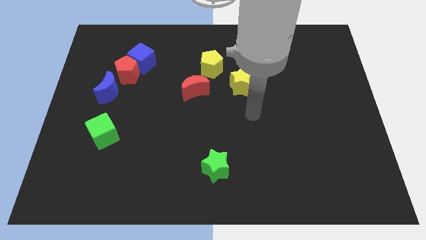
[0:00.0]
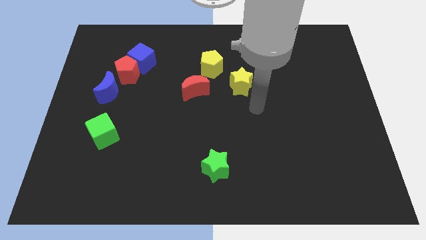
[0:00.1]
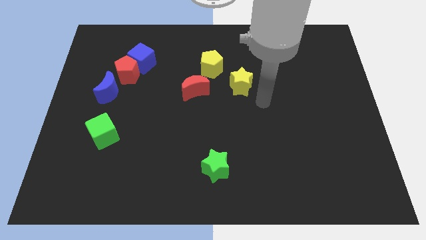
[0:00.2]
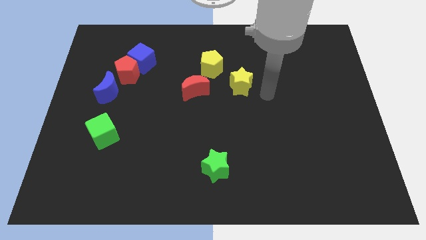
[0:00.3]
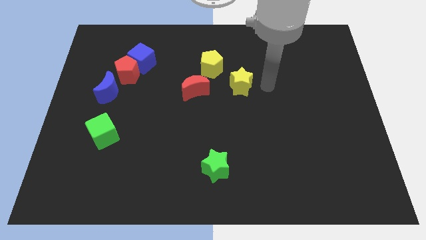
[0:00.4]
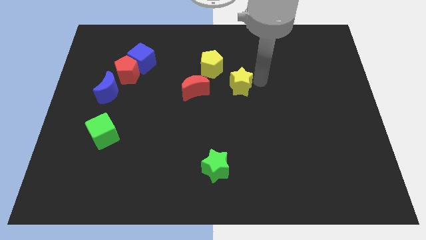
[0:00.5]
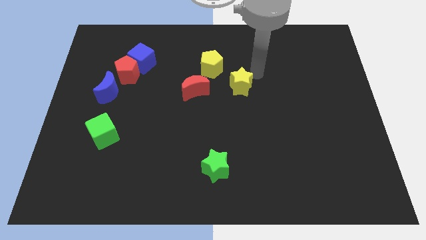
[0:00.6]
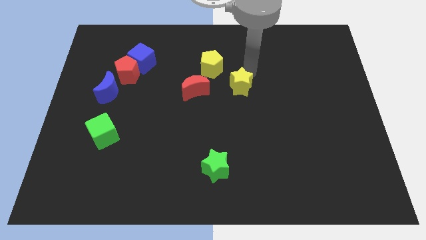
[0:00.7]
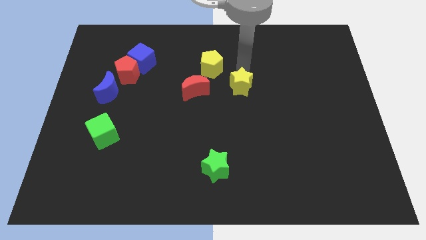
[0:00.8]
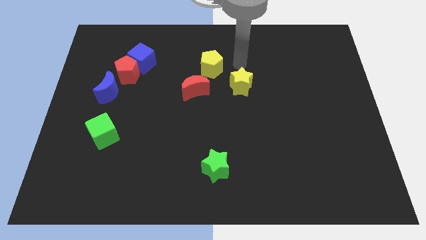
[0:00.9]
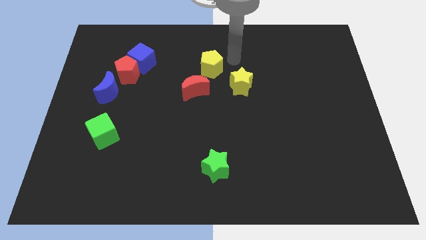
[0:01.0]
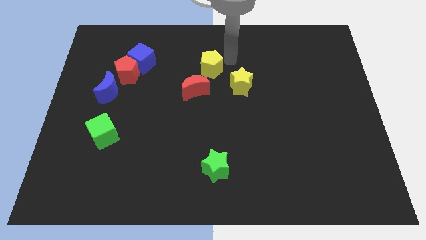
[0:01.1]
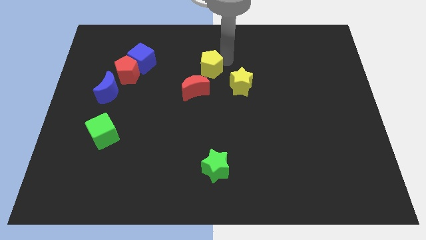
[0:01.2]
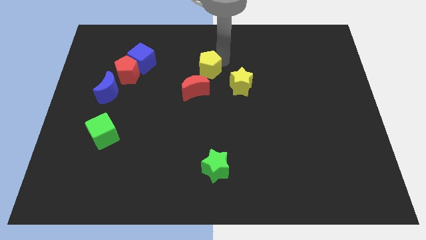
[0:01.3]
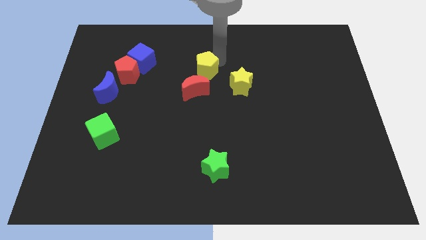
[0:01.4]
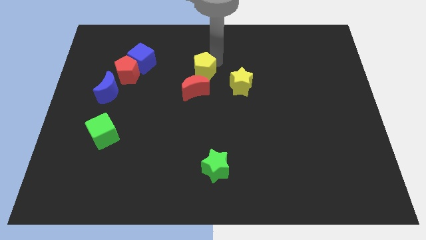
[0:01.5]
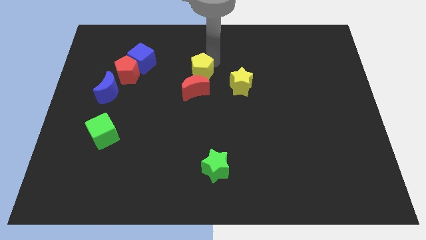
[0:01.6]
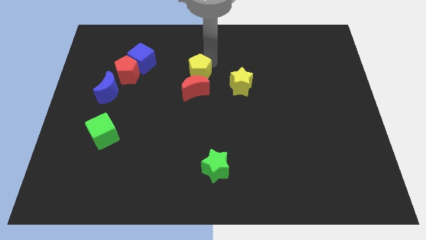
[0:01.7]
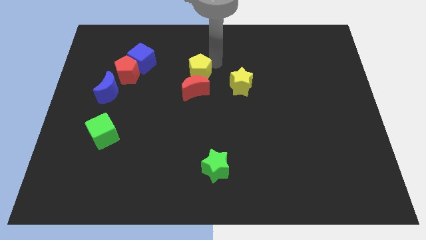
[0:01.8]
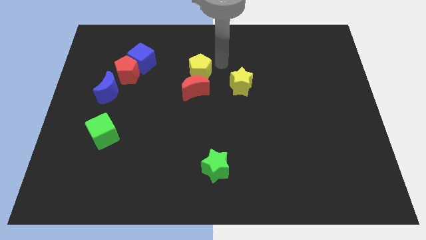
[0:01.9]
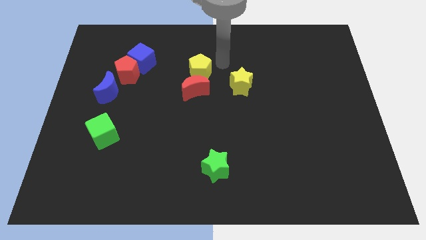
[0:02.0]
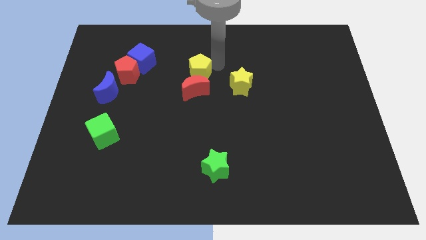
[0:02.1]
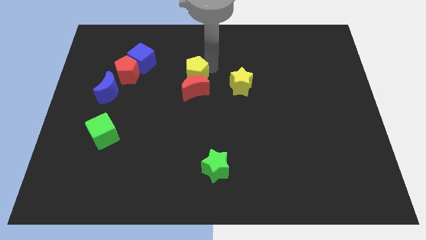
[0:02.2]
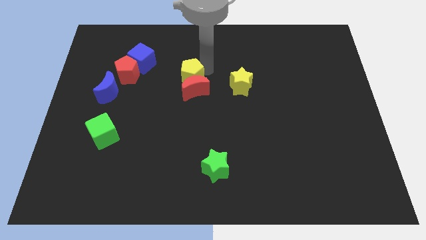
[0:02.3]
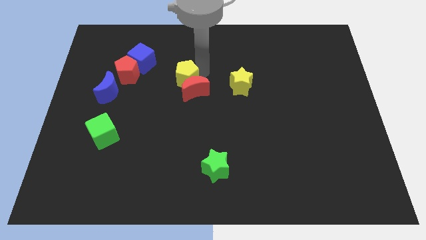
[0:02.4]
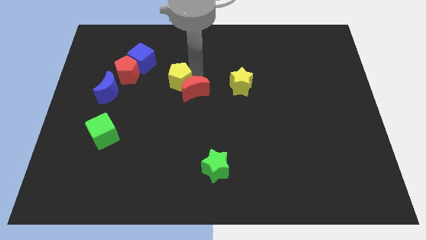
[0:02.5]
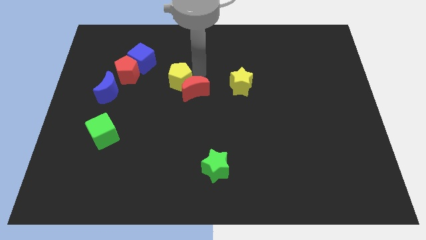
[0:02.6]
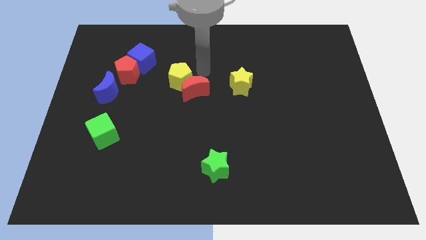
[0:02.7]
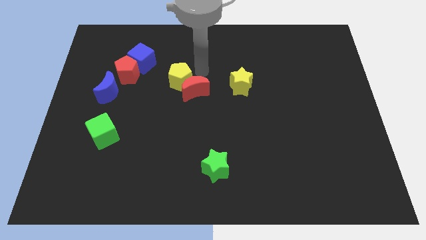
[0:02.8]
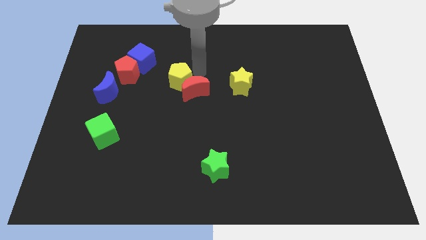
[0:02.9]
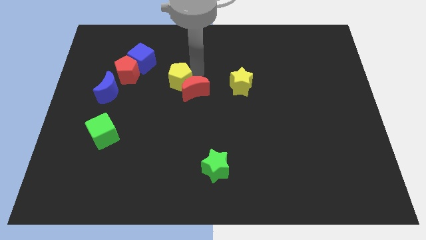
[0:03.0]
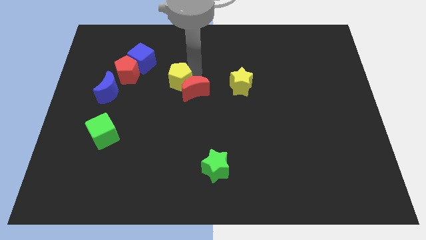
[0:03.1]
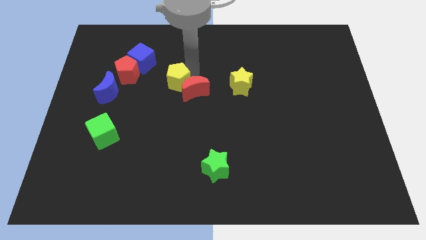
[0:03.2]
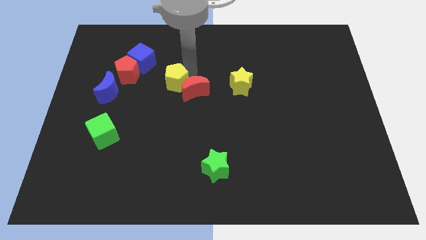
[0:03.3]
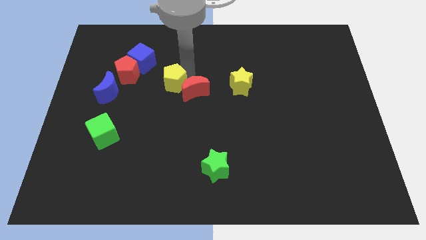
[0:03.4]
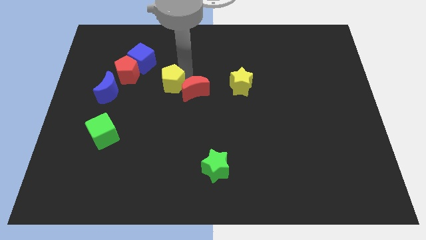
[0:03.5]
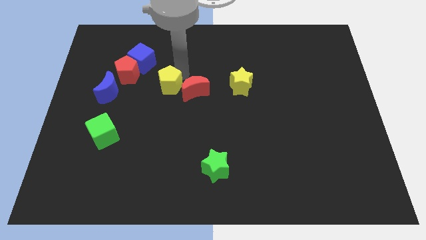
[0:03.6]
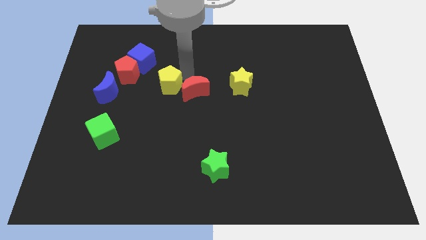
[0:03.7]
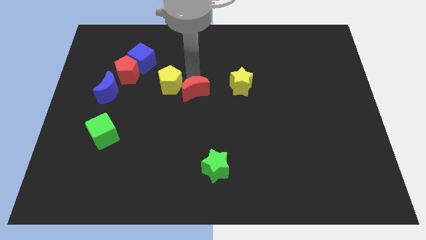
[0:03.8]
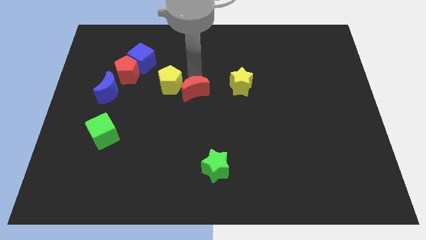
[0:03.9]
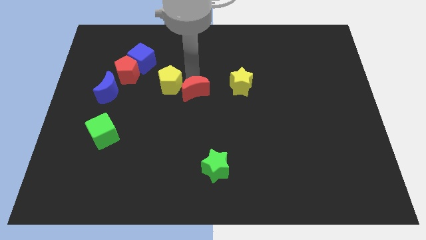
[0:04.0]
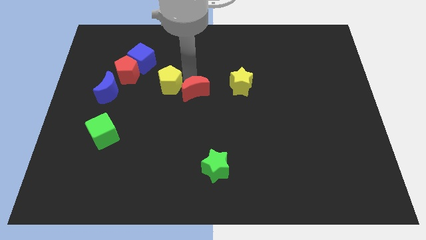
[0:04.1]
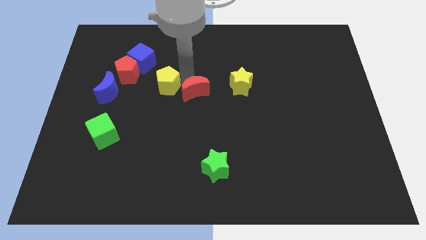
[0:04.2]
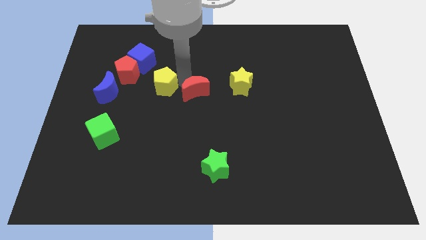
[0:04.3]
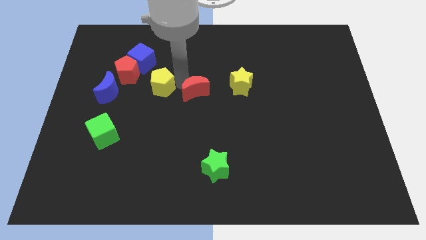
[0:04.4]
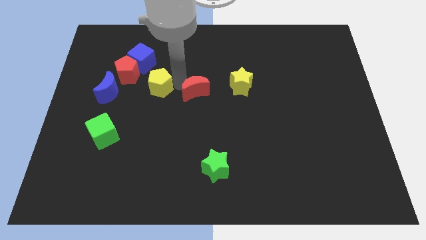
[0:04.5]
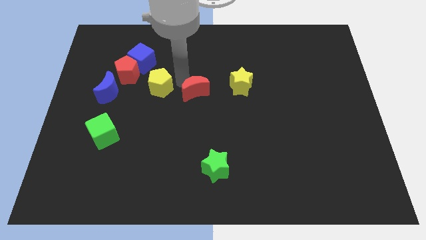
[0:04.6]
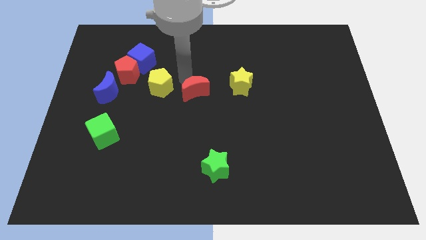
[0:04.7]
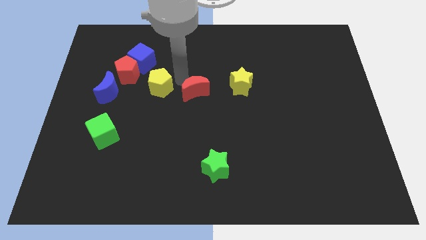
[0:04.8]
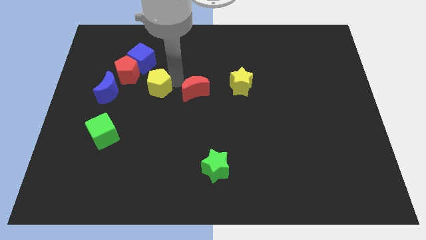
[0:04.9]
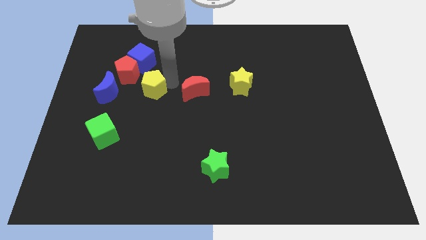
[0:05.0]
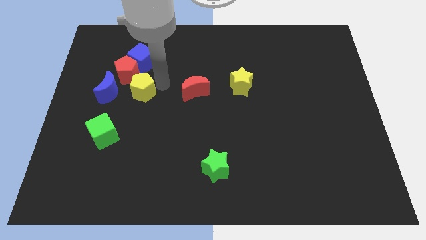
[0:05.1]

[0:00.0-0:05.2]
move the yellow pentagon below the red pentagon

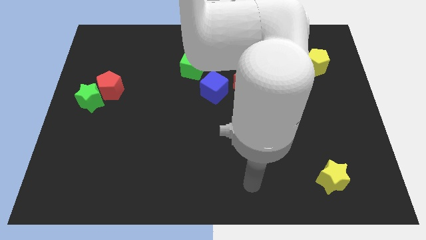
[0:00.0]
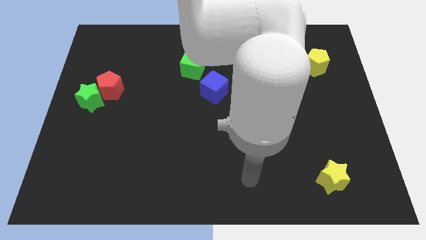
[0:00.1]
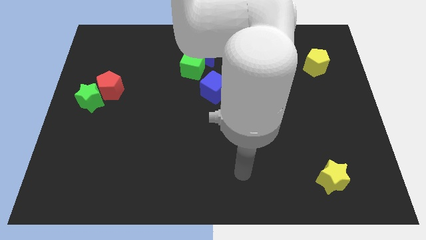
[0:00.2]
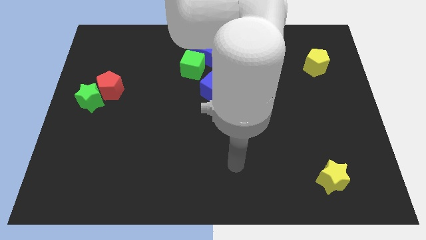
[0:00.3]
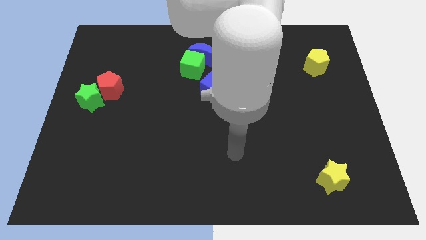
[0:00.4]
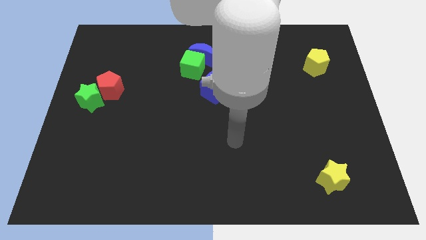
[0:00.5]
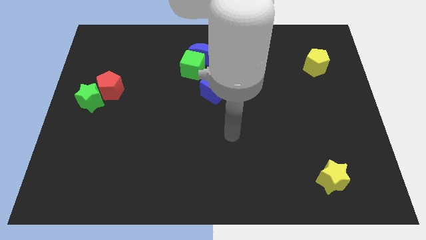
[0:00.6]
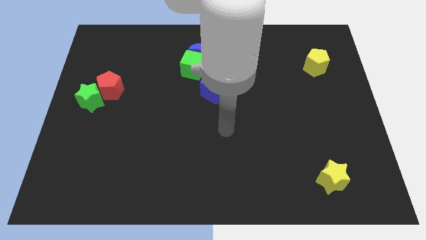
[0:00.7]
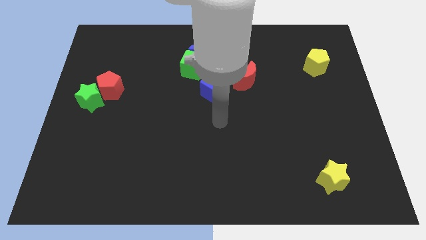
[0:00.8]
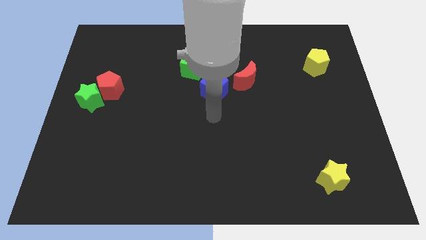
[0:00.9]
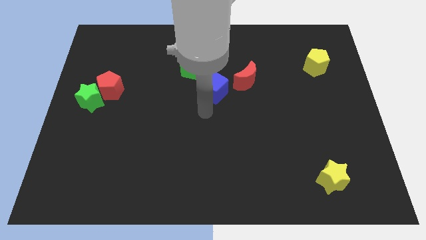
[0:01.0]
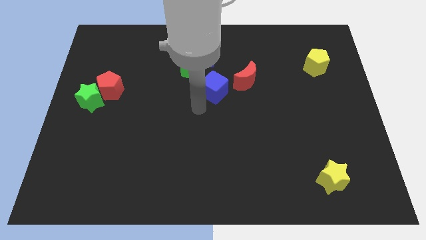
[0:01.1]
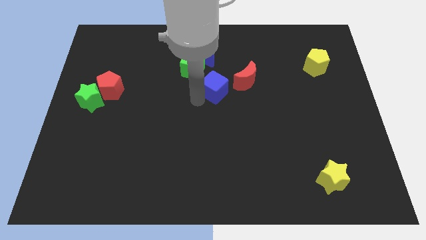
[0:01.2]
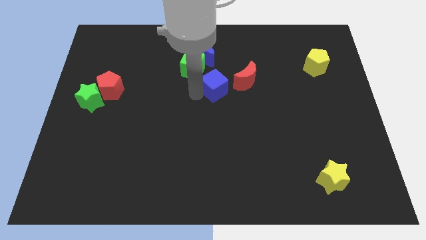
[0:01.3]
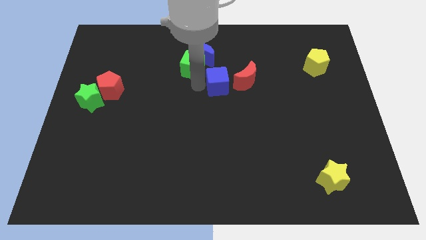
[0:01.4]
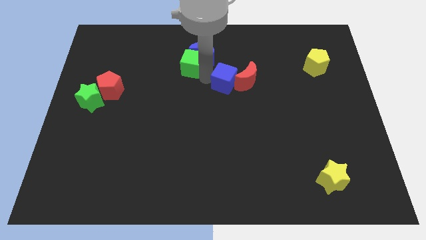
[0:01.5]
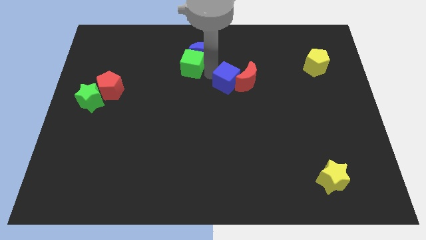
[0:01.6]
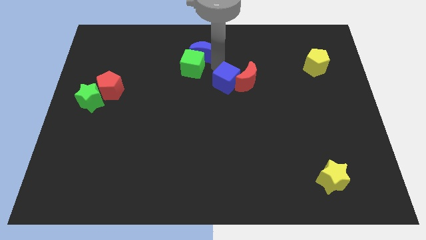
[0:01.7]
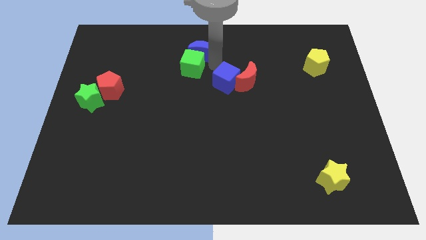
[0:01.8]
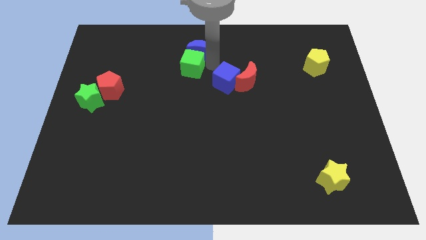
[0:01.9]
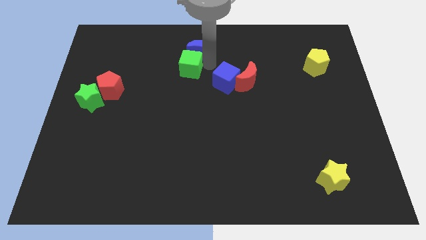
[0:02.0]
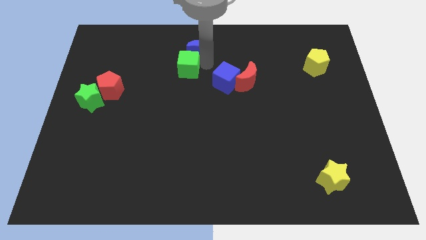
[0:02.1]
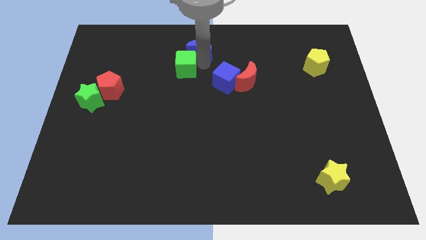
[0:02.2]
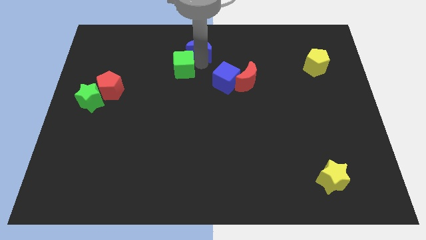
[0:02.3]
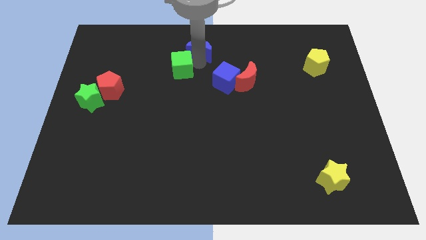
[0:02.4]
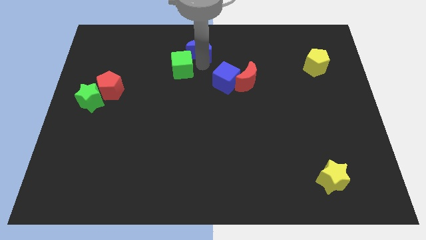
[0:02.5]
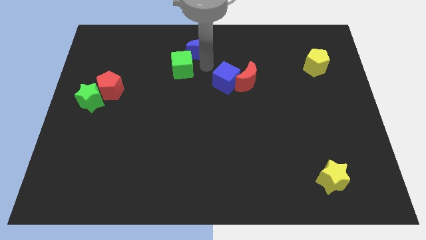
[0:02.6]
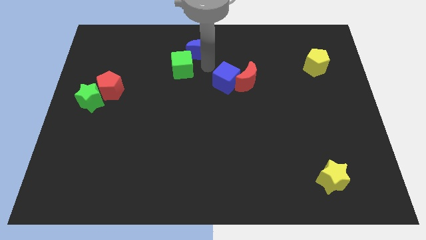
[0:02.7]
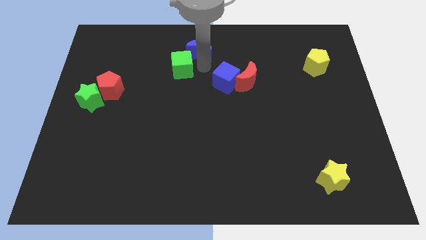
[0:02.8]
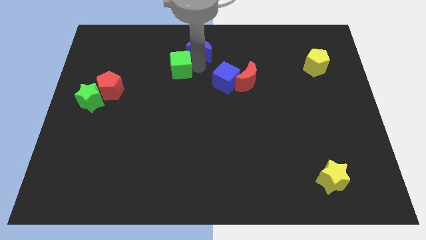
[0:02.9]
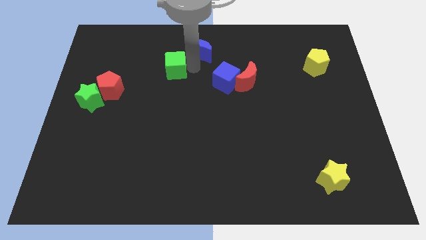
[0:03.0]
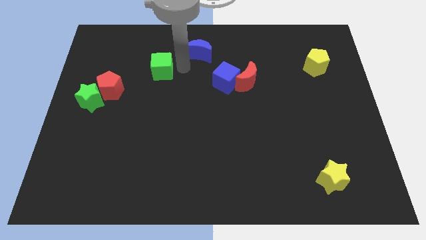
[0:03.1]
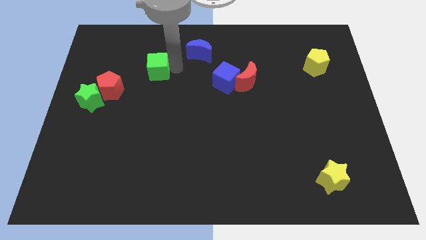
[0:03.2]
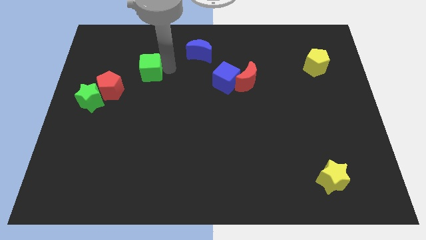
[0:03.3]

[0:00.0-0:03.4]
slide the green cube diagonally up and to the right of the red pentagon
